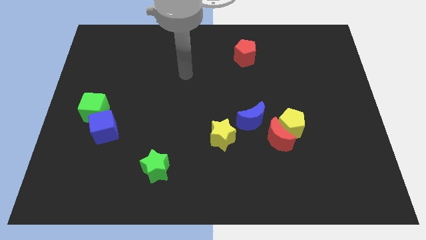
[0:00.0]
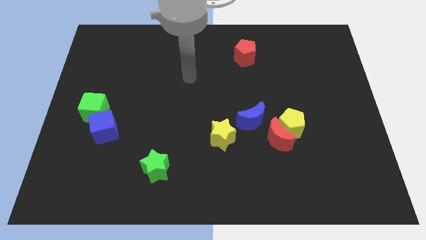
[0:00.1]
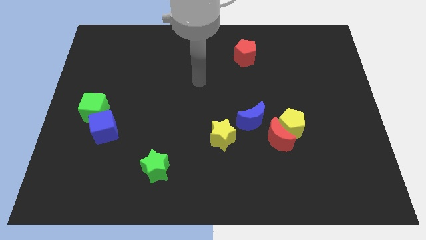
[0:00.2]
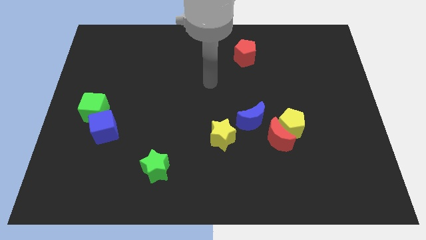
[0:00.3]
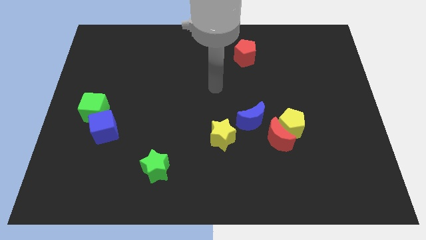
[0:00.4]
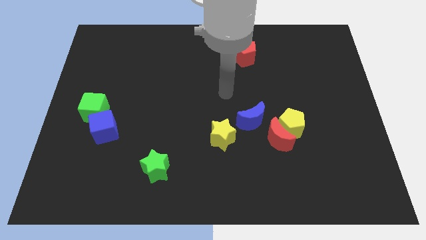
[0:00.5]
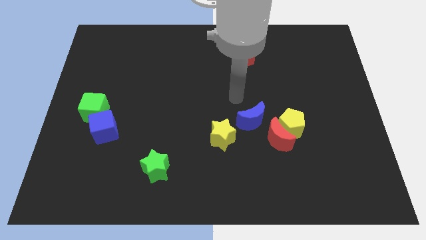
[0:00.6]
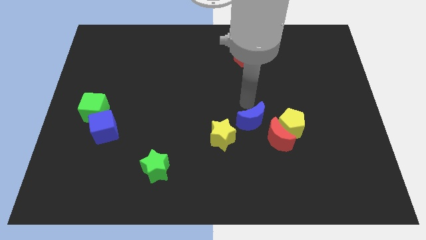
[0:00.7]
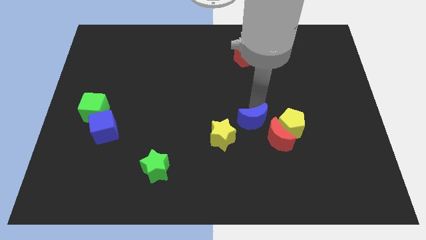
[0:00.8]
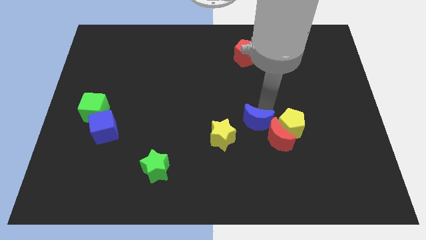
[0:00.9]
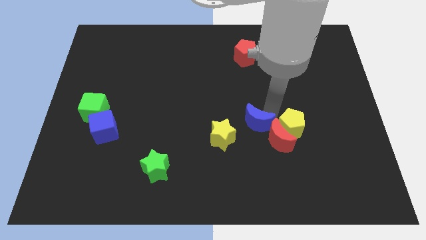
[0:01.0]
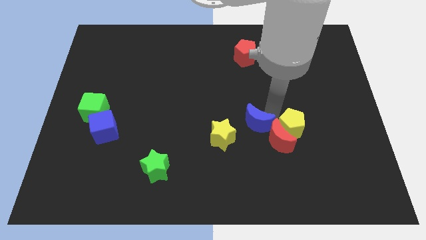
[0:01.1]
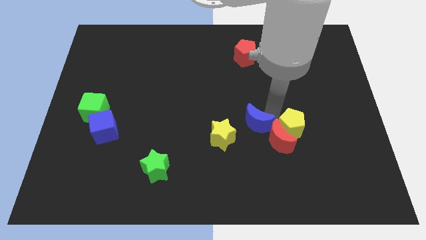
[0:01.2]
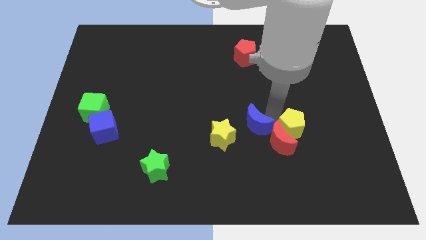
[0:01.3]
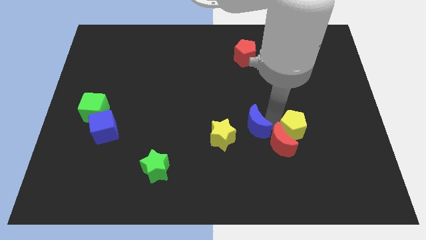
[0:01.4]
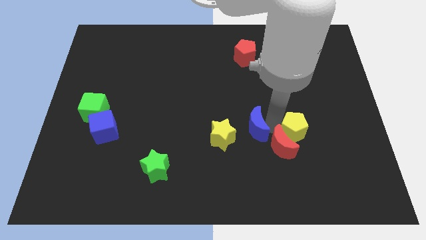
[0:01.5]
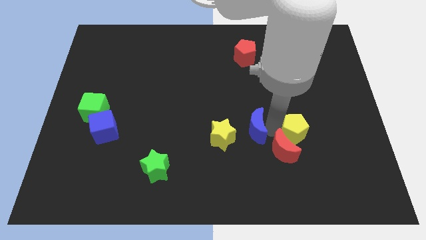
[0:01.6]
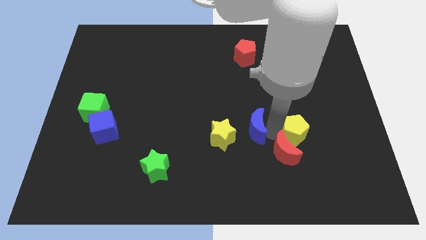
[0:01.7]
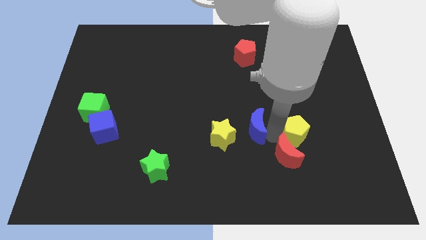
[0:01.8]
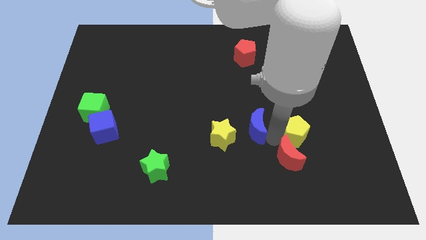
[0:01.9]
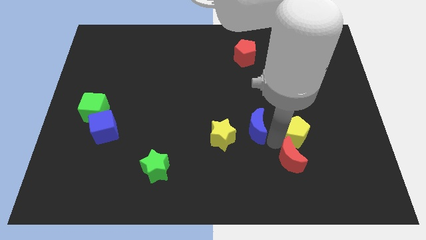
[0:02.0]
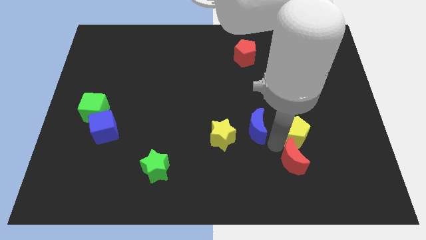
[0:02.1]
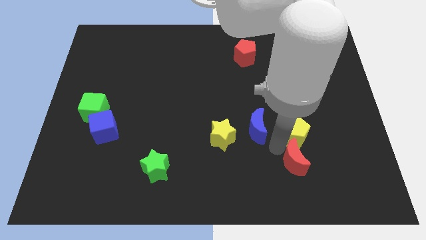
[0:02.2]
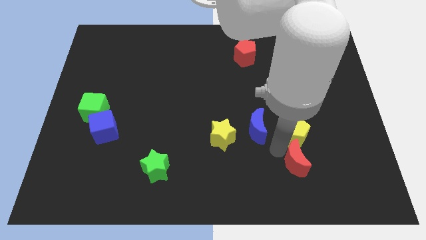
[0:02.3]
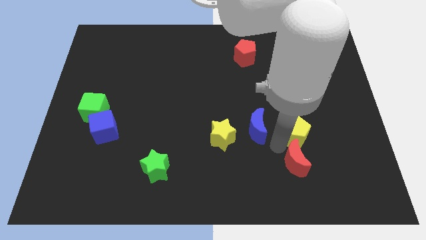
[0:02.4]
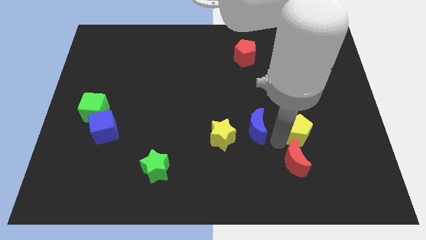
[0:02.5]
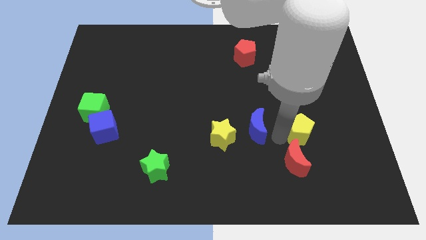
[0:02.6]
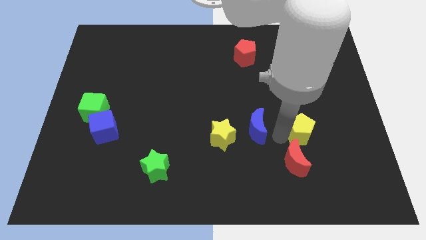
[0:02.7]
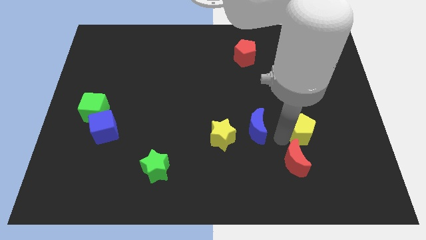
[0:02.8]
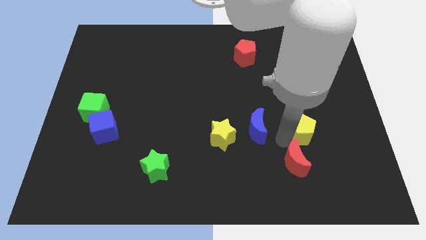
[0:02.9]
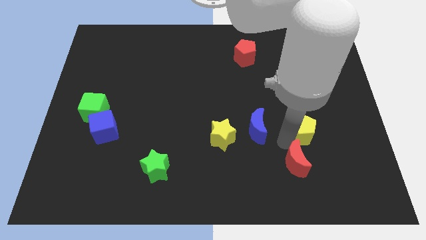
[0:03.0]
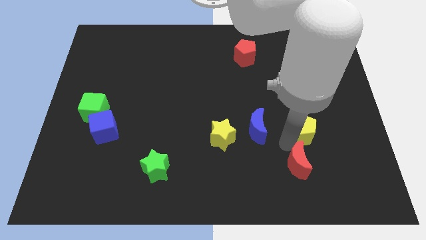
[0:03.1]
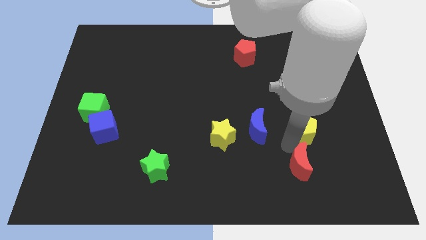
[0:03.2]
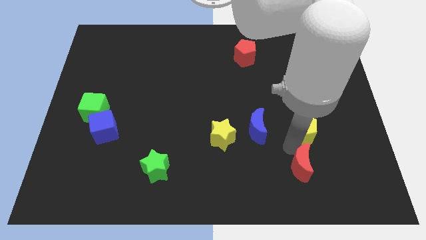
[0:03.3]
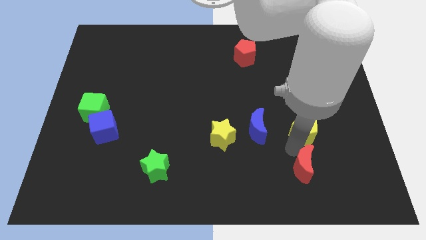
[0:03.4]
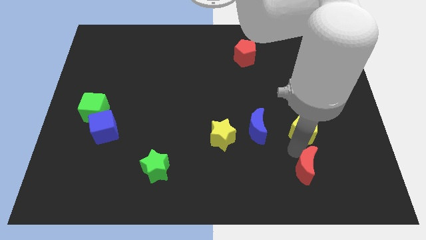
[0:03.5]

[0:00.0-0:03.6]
move the red moon away from the yellow pentagon and blue moon

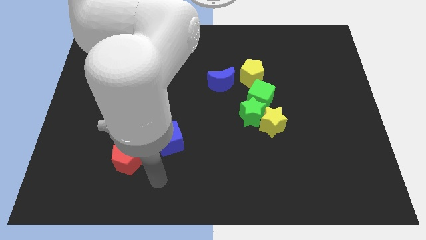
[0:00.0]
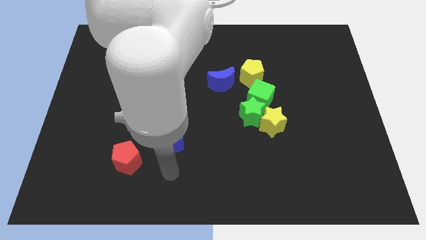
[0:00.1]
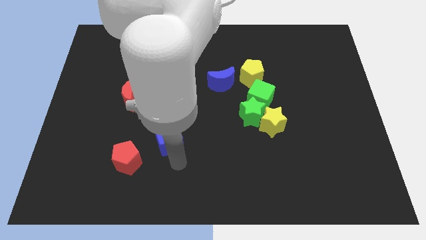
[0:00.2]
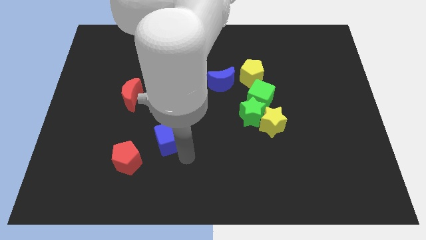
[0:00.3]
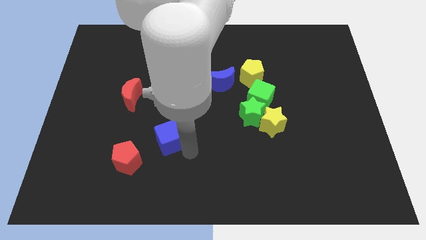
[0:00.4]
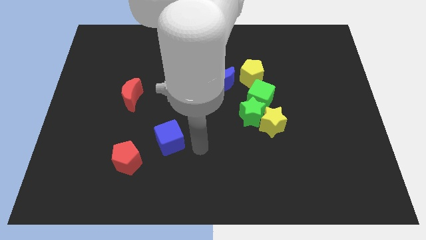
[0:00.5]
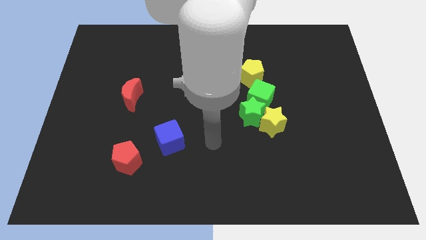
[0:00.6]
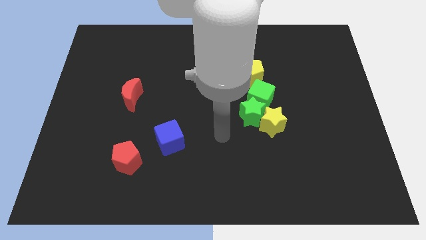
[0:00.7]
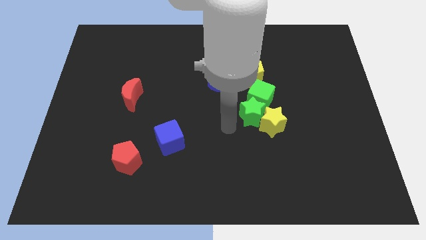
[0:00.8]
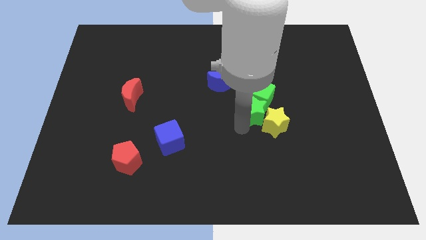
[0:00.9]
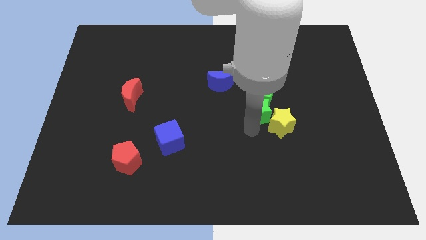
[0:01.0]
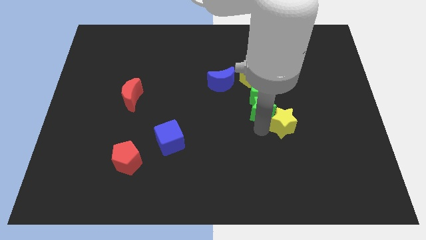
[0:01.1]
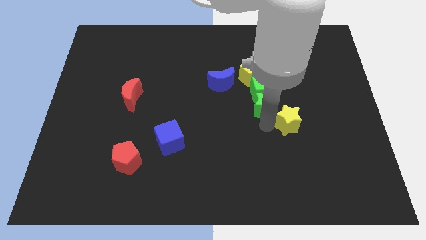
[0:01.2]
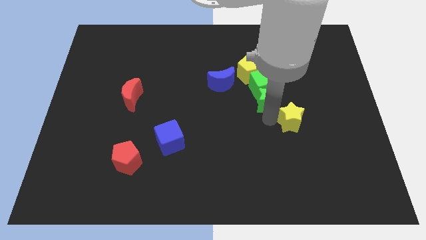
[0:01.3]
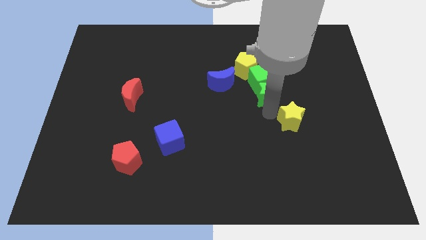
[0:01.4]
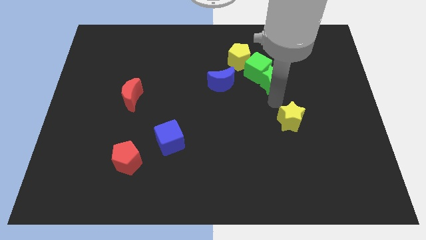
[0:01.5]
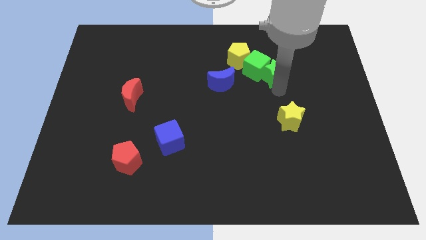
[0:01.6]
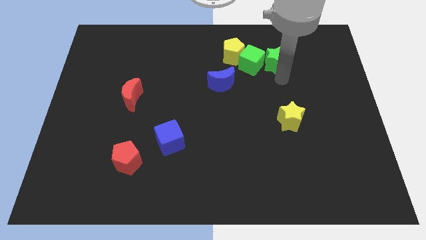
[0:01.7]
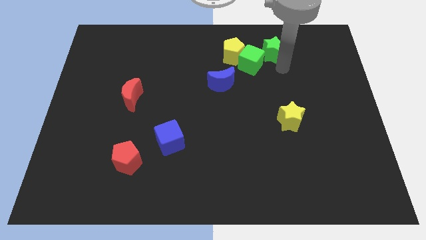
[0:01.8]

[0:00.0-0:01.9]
pull the green star apart from the yellow star and green cube

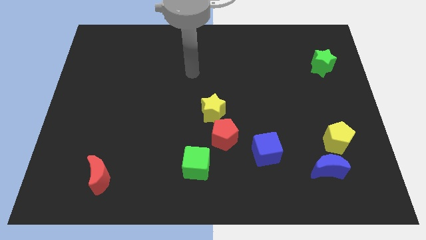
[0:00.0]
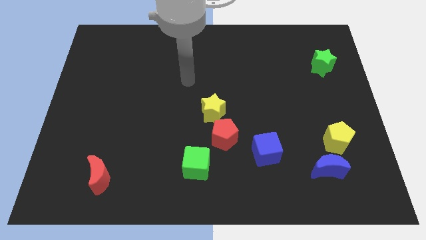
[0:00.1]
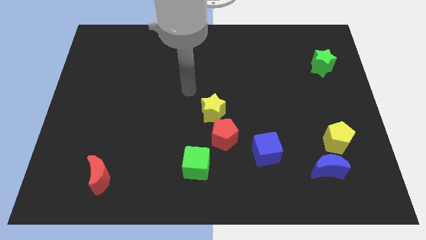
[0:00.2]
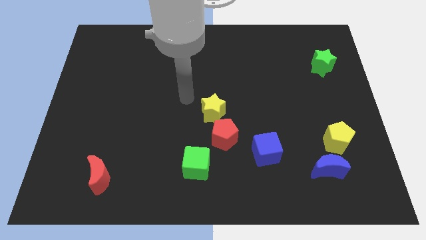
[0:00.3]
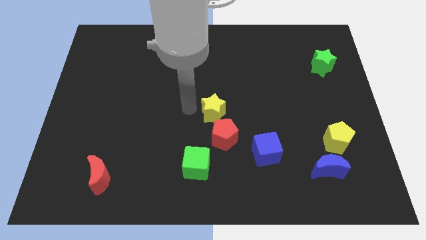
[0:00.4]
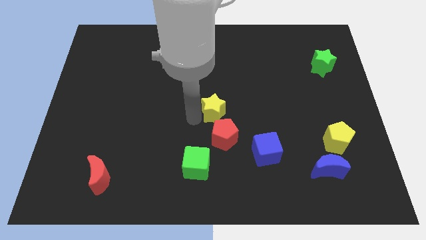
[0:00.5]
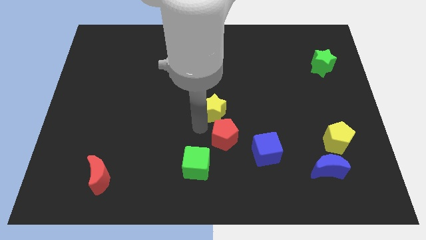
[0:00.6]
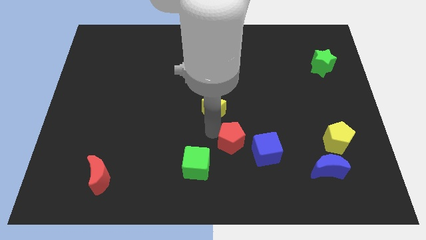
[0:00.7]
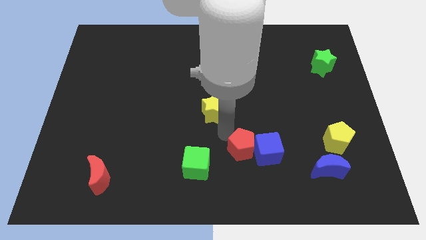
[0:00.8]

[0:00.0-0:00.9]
move the yellow star away from the red pentagon

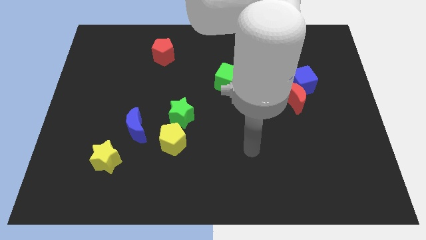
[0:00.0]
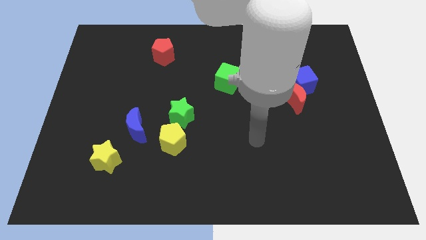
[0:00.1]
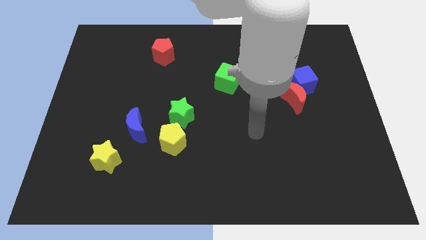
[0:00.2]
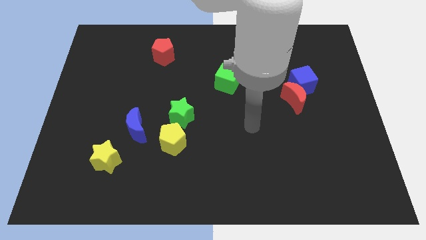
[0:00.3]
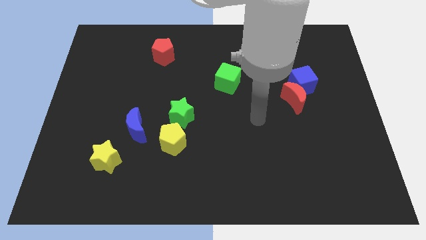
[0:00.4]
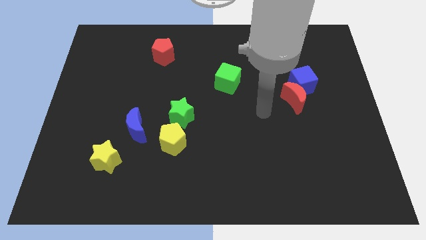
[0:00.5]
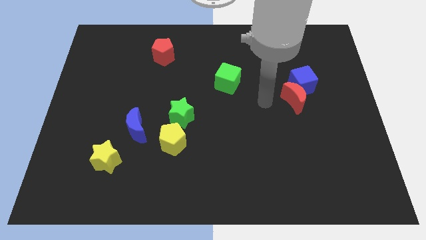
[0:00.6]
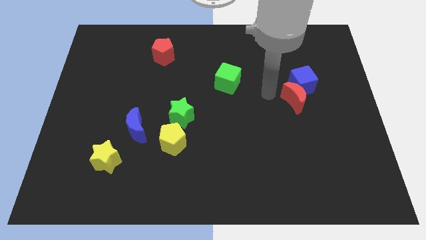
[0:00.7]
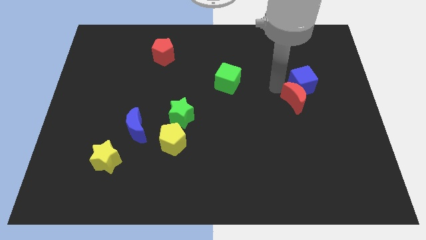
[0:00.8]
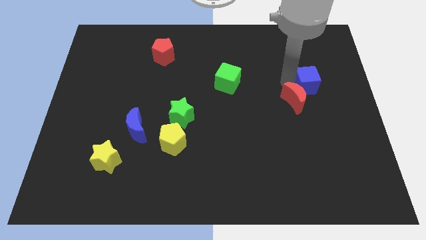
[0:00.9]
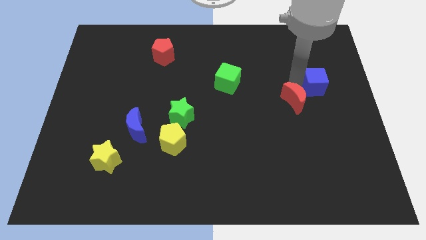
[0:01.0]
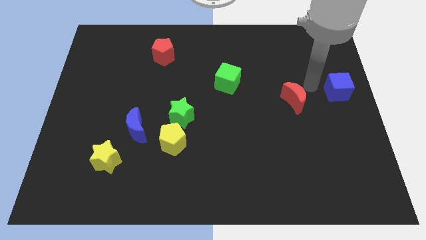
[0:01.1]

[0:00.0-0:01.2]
pull the red moon apart from the blue cube

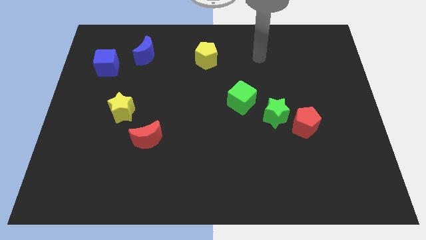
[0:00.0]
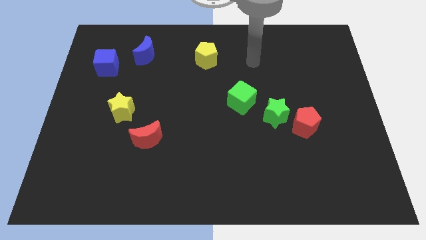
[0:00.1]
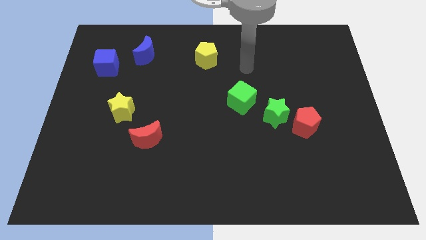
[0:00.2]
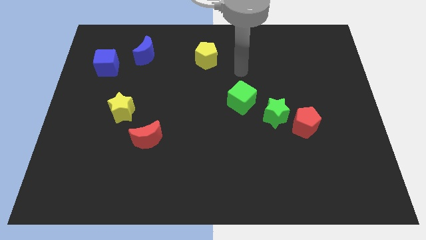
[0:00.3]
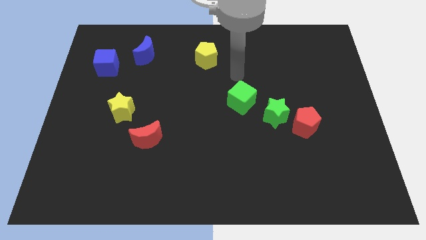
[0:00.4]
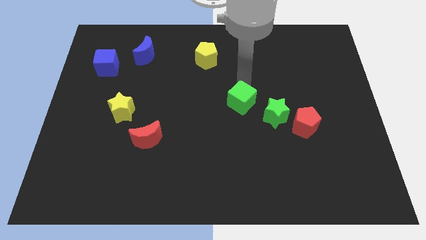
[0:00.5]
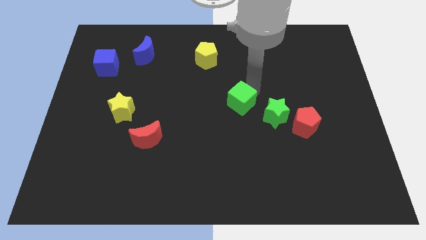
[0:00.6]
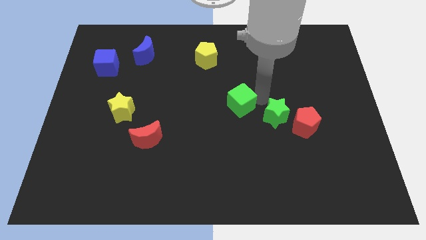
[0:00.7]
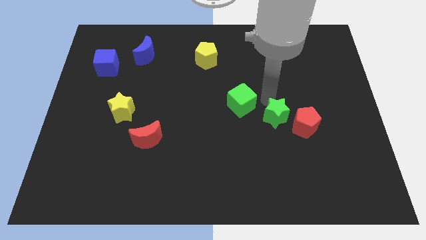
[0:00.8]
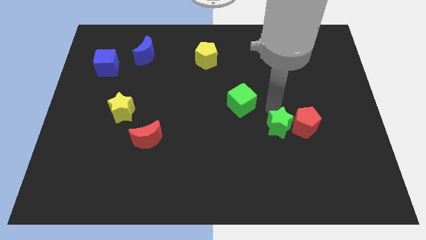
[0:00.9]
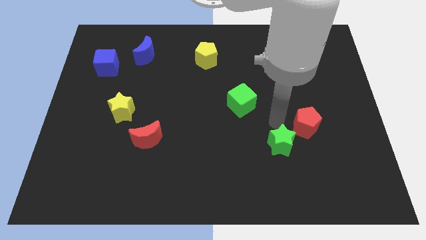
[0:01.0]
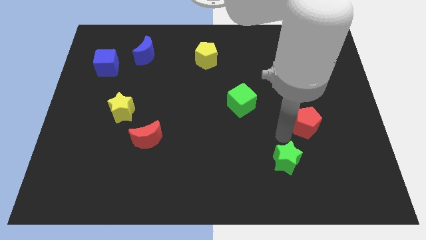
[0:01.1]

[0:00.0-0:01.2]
pull the red pentagon apart from the green star

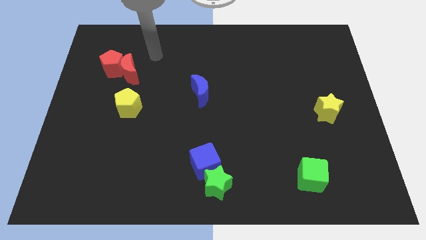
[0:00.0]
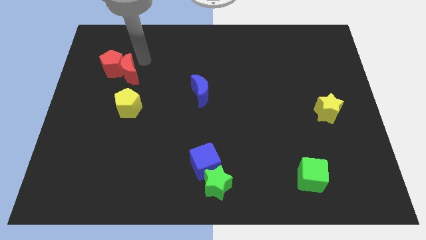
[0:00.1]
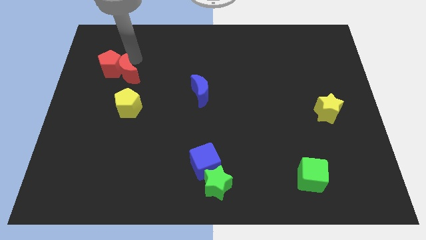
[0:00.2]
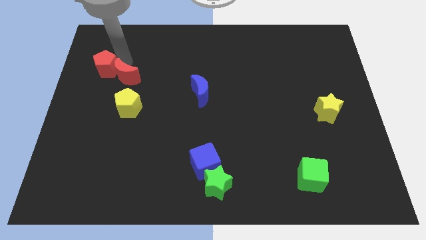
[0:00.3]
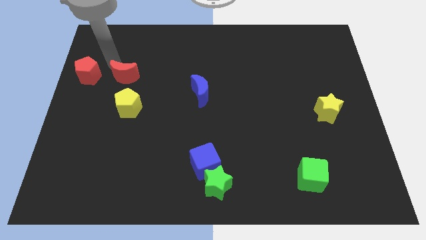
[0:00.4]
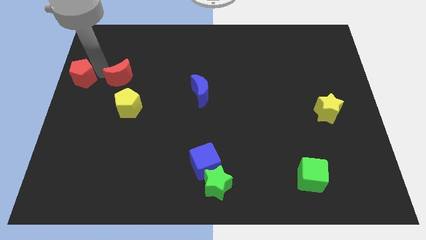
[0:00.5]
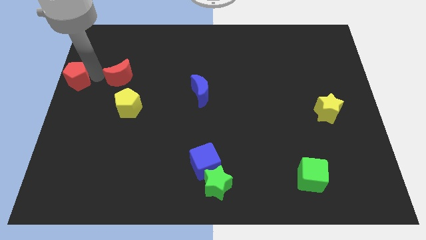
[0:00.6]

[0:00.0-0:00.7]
pull the red moon apart from the red pentagon
